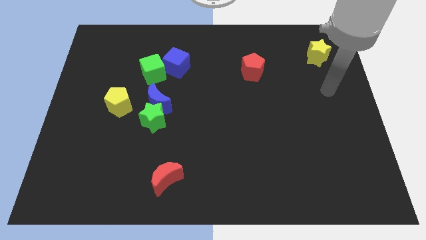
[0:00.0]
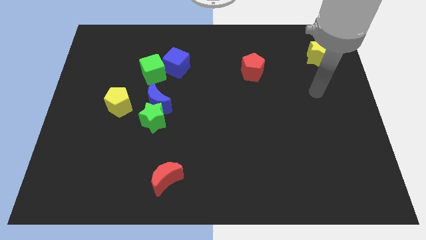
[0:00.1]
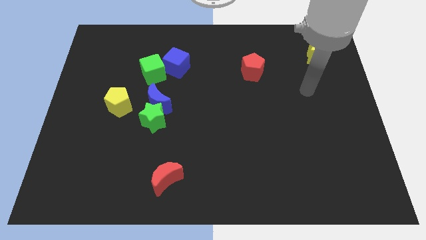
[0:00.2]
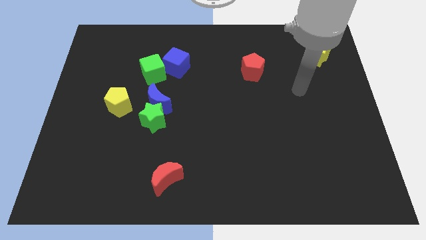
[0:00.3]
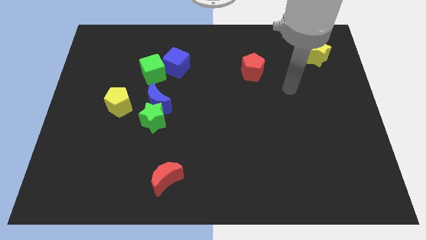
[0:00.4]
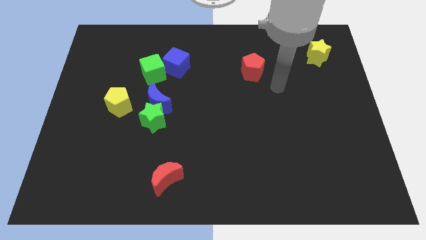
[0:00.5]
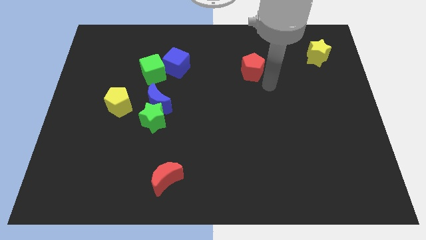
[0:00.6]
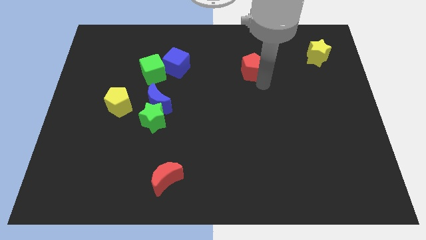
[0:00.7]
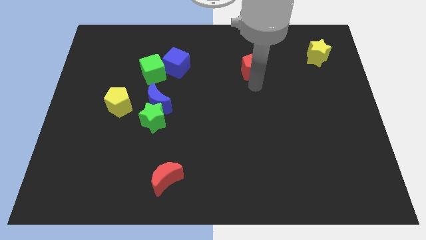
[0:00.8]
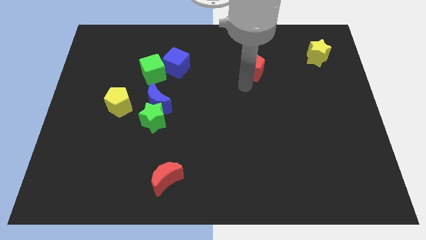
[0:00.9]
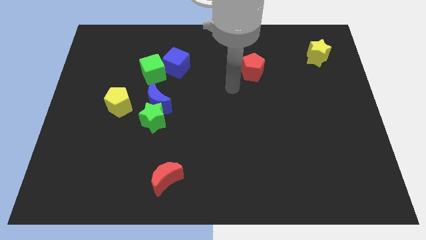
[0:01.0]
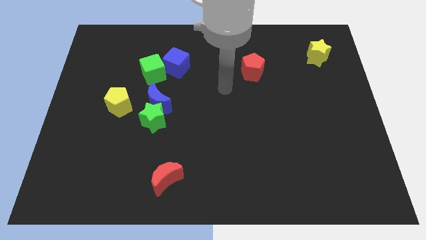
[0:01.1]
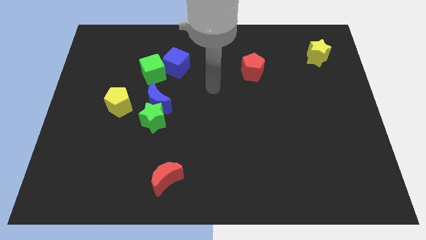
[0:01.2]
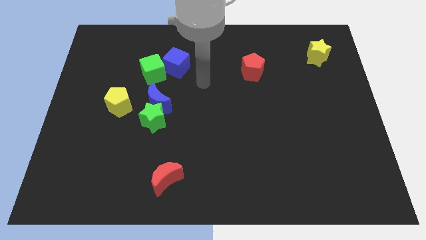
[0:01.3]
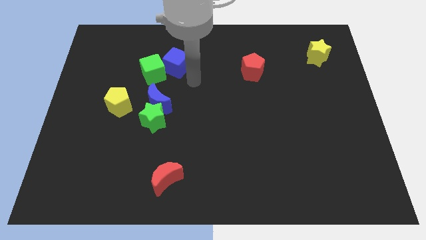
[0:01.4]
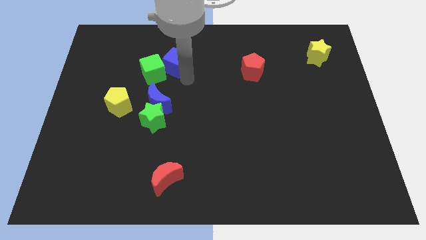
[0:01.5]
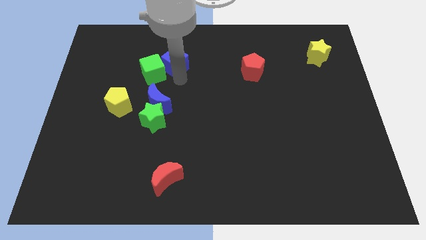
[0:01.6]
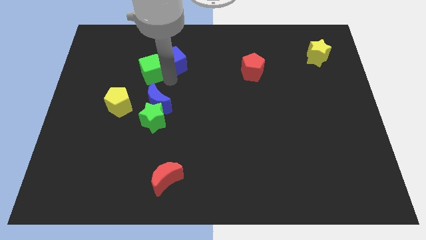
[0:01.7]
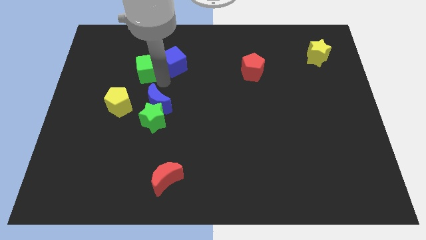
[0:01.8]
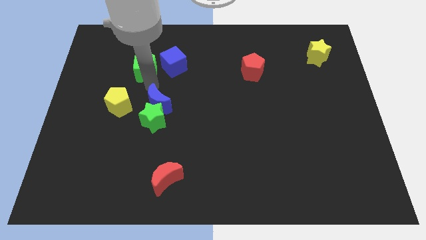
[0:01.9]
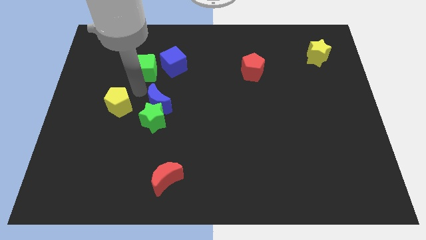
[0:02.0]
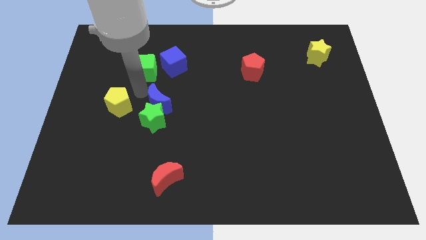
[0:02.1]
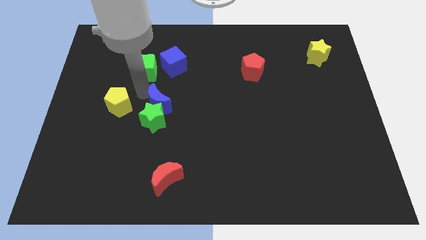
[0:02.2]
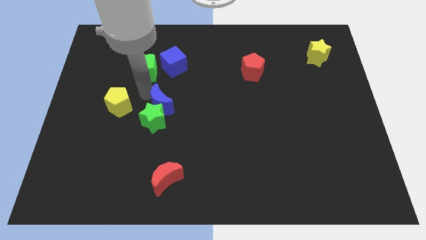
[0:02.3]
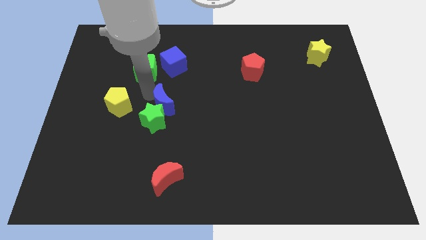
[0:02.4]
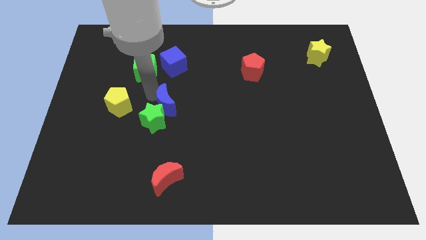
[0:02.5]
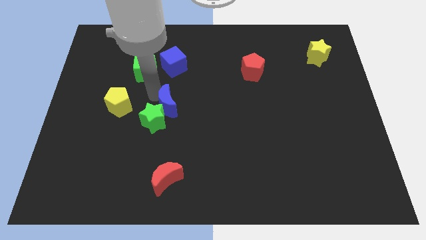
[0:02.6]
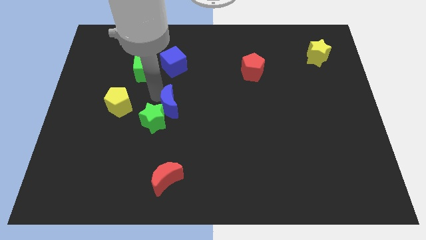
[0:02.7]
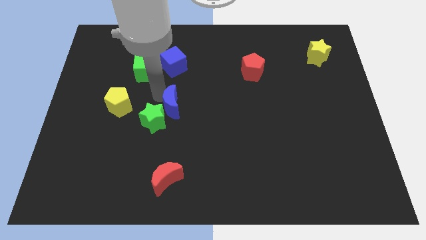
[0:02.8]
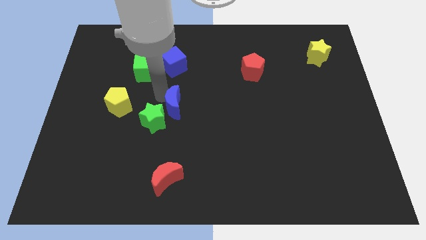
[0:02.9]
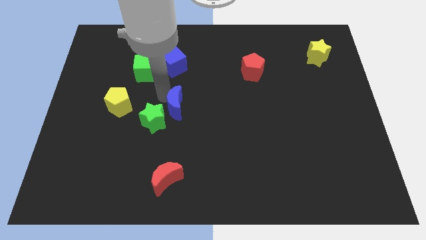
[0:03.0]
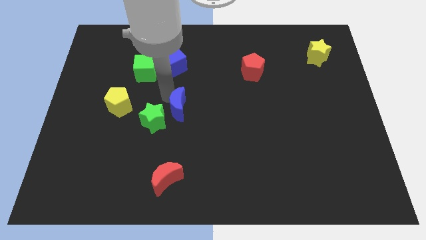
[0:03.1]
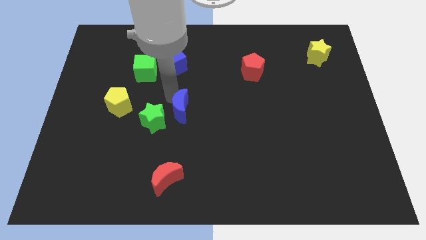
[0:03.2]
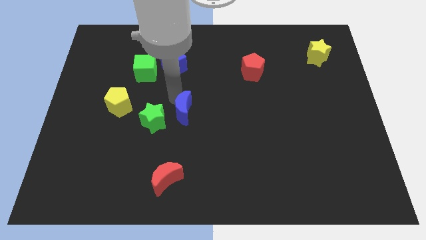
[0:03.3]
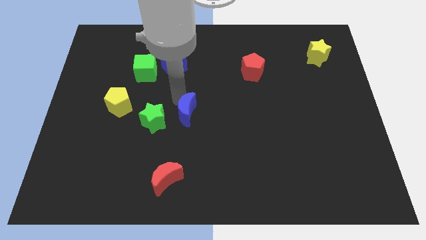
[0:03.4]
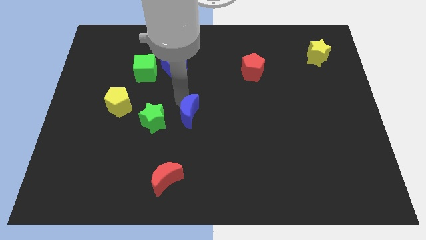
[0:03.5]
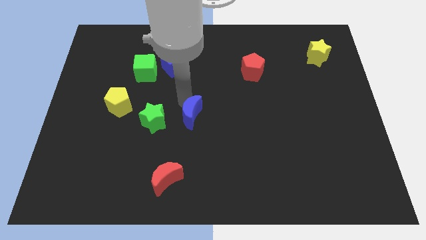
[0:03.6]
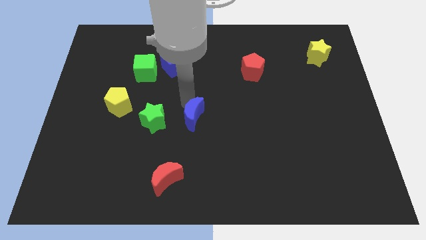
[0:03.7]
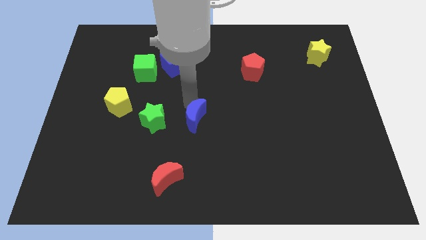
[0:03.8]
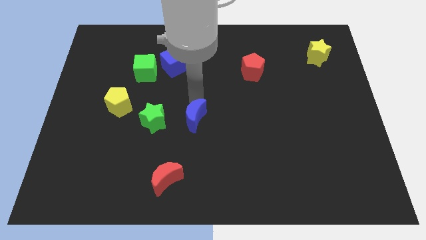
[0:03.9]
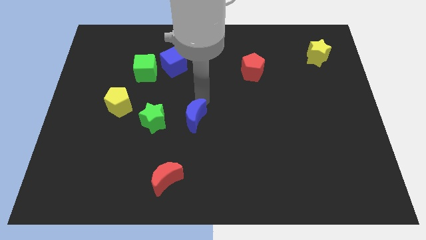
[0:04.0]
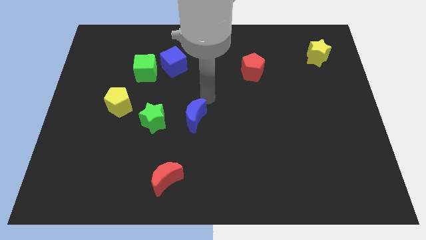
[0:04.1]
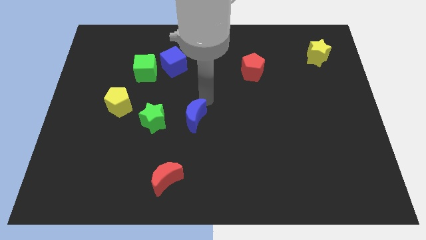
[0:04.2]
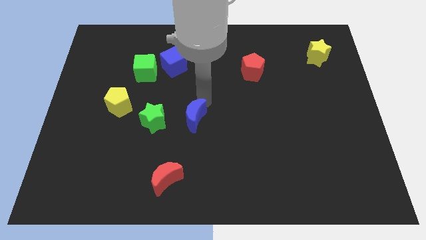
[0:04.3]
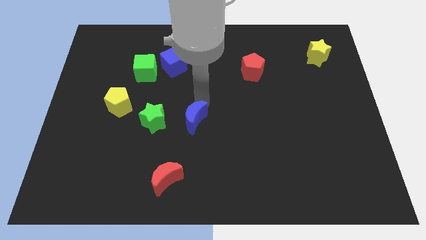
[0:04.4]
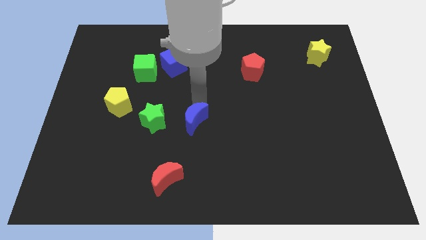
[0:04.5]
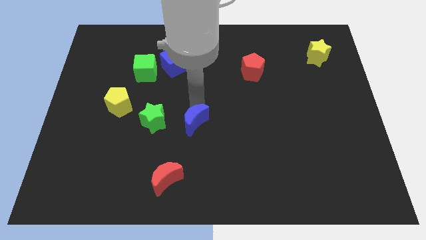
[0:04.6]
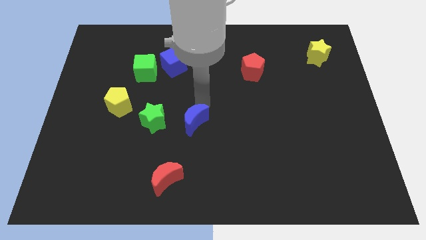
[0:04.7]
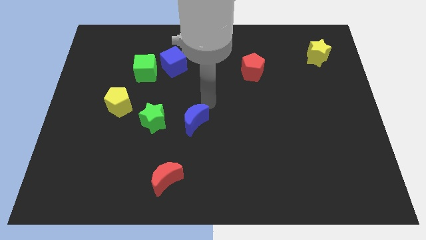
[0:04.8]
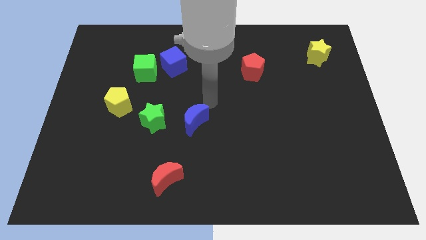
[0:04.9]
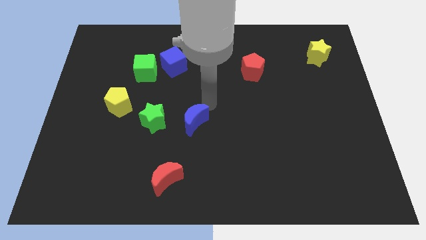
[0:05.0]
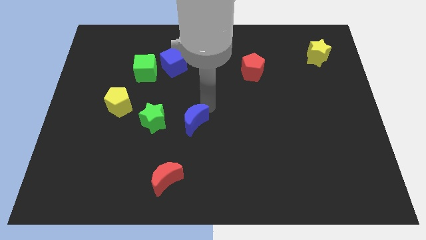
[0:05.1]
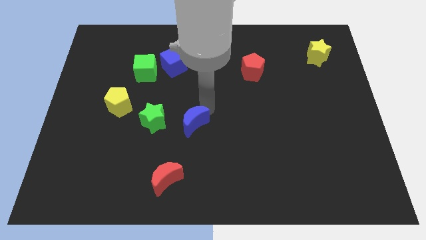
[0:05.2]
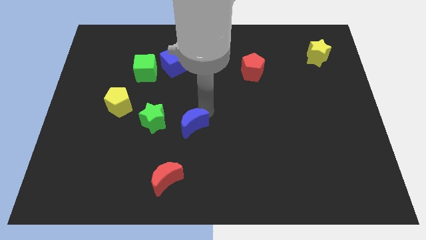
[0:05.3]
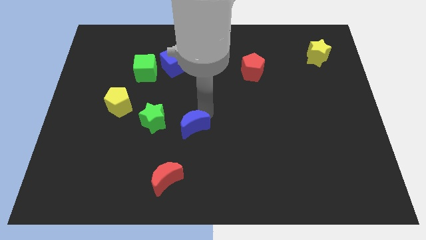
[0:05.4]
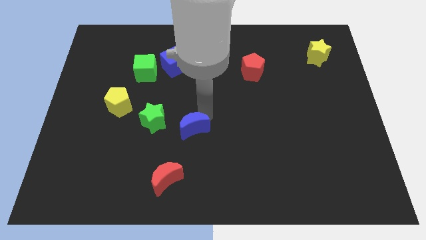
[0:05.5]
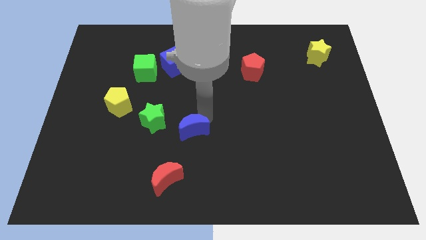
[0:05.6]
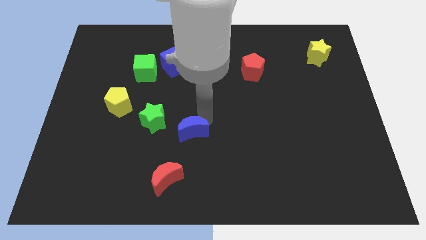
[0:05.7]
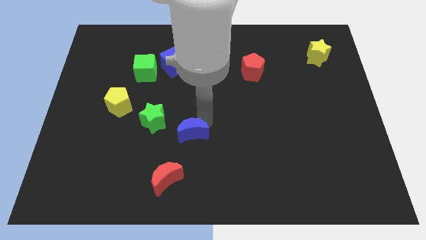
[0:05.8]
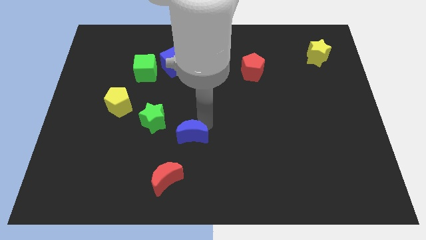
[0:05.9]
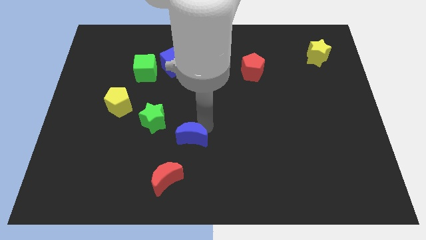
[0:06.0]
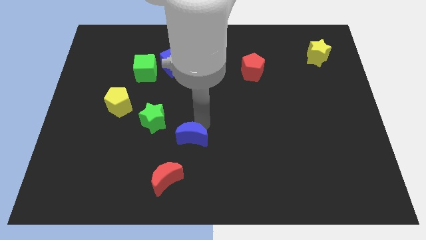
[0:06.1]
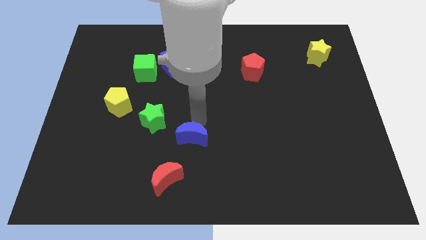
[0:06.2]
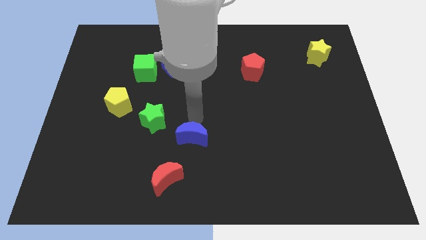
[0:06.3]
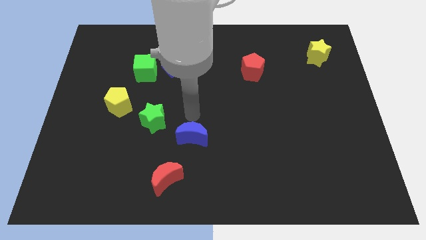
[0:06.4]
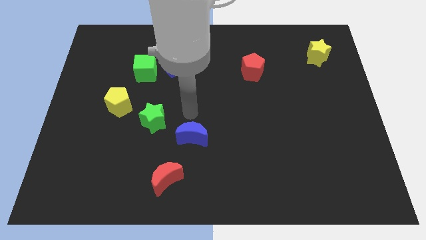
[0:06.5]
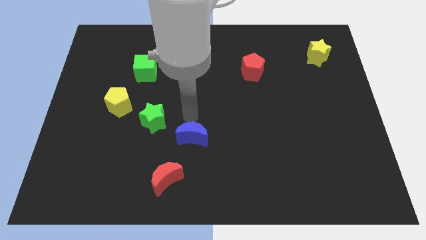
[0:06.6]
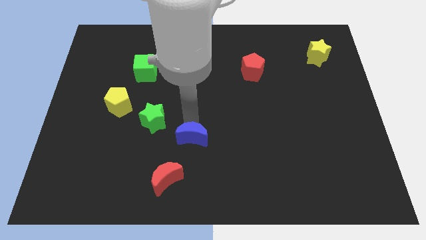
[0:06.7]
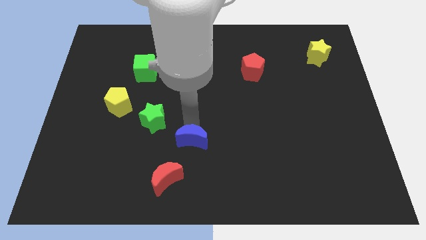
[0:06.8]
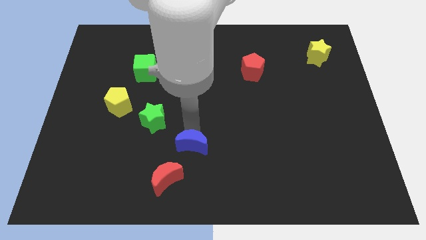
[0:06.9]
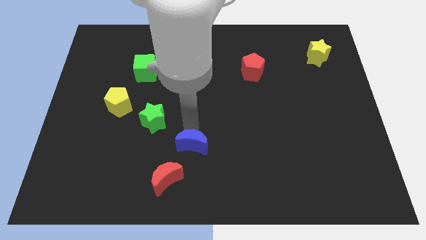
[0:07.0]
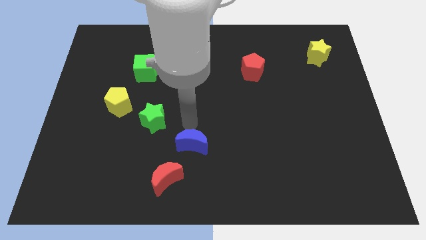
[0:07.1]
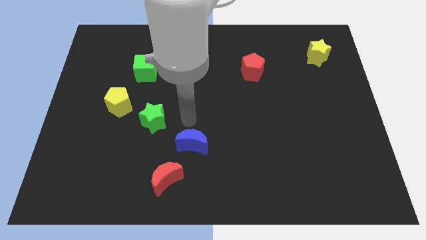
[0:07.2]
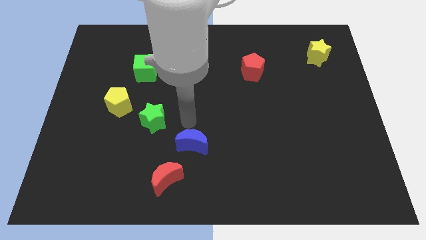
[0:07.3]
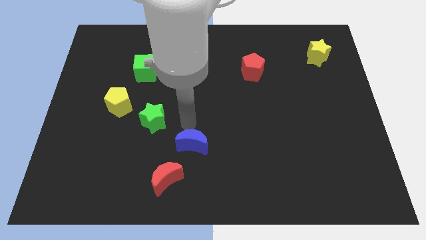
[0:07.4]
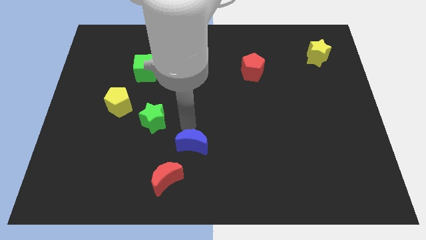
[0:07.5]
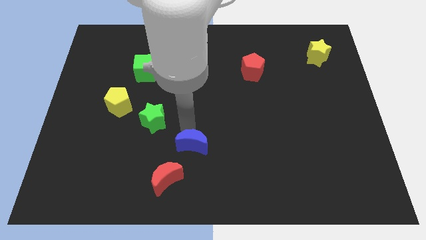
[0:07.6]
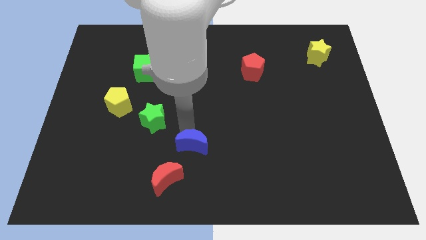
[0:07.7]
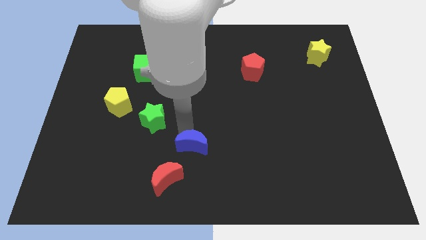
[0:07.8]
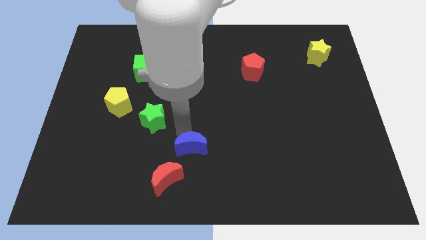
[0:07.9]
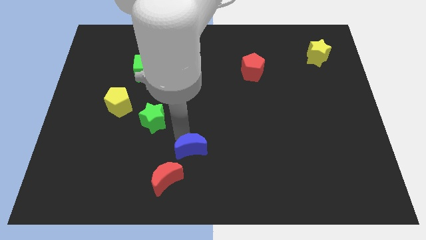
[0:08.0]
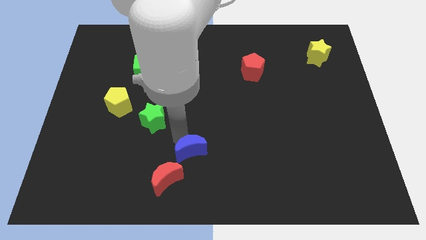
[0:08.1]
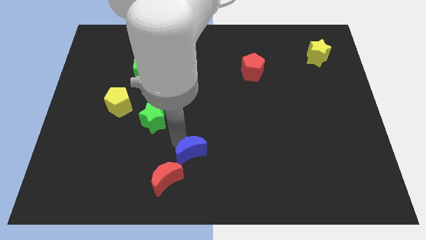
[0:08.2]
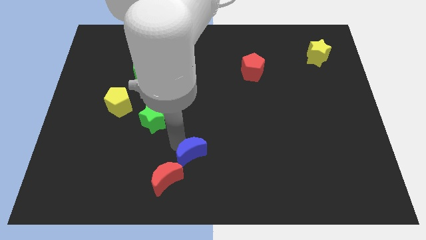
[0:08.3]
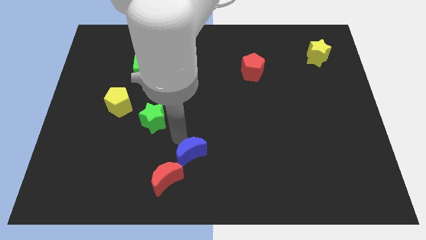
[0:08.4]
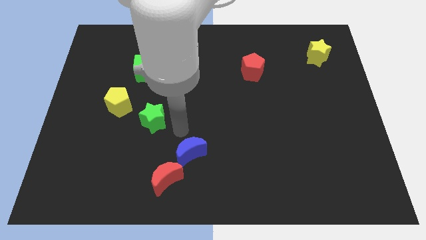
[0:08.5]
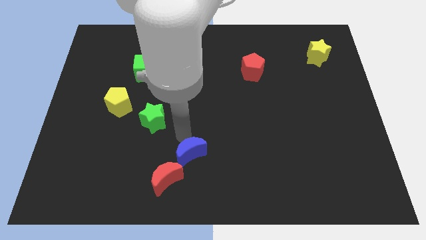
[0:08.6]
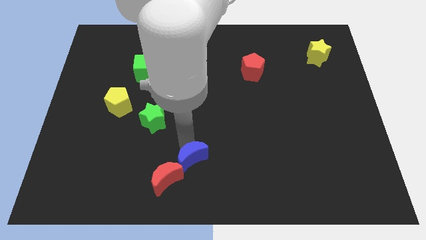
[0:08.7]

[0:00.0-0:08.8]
move the blue moon to the bottom
